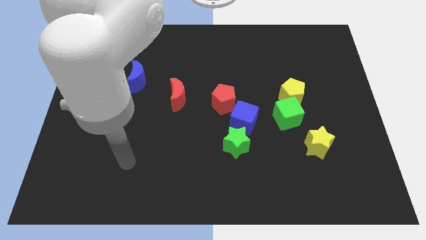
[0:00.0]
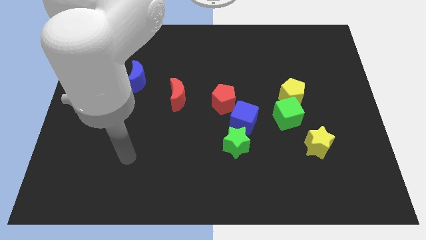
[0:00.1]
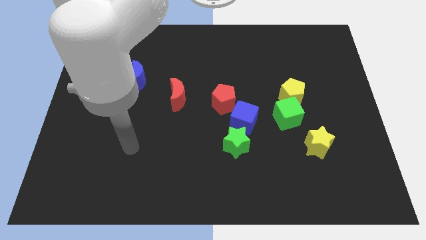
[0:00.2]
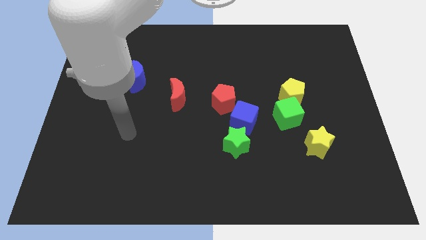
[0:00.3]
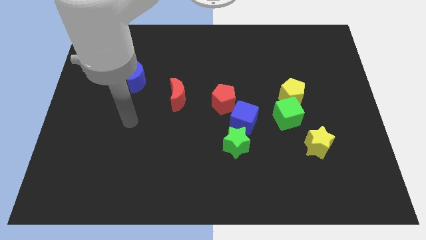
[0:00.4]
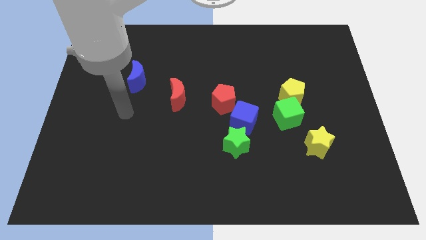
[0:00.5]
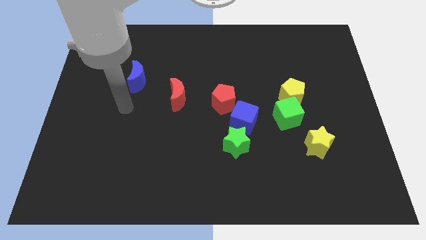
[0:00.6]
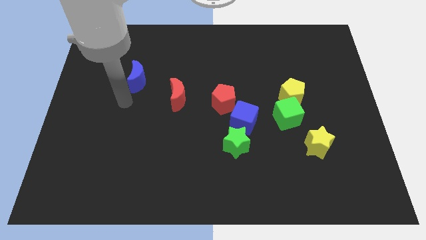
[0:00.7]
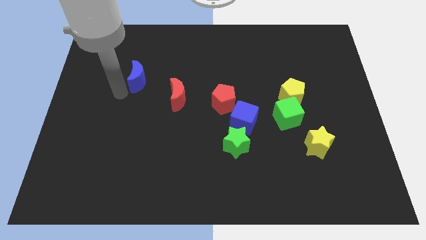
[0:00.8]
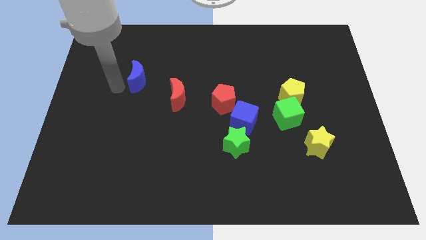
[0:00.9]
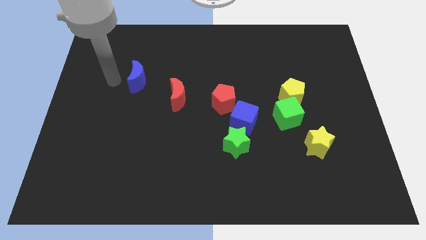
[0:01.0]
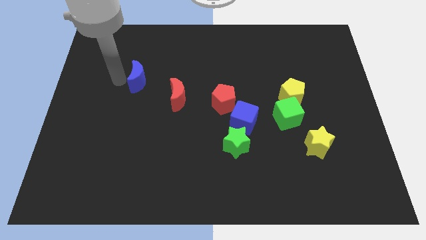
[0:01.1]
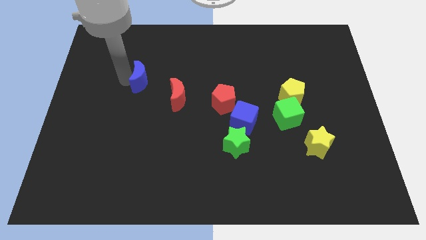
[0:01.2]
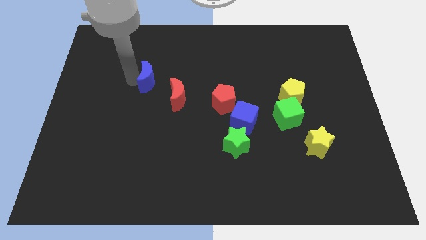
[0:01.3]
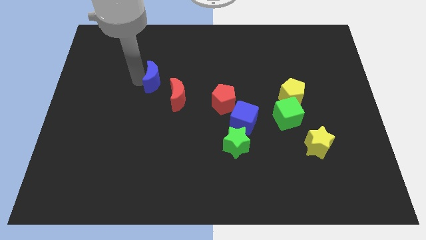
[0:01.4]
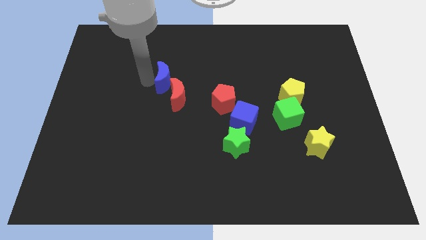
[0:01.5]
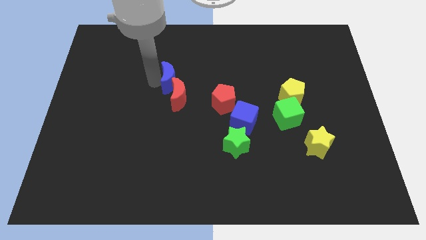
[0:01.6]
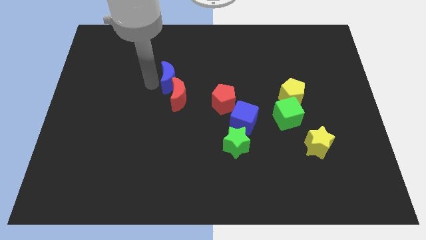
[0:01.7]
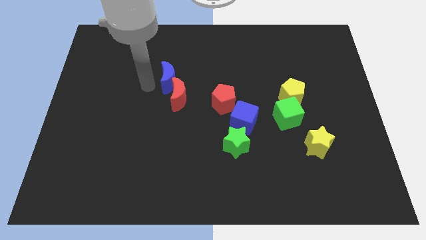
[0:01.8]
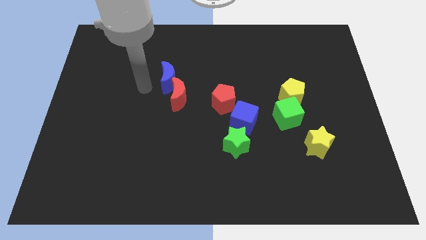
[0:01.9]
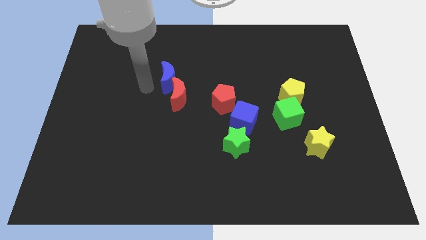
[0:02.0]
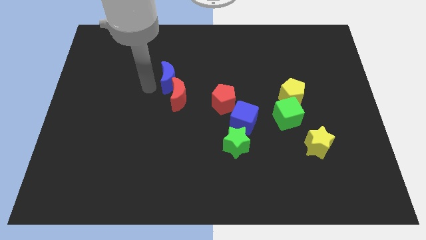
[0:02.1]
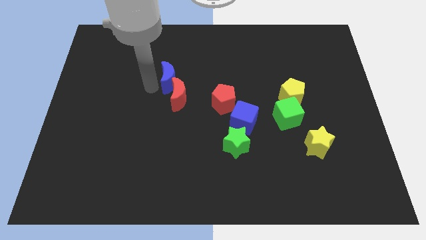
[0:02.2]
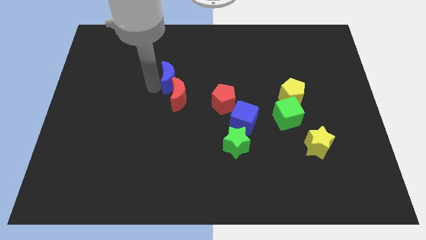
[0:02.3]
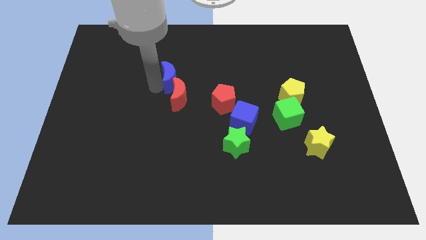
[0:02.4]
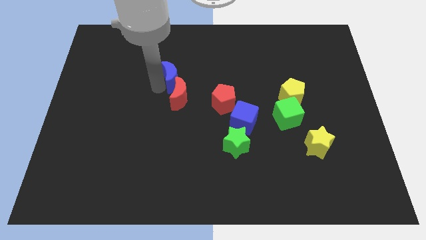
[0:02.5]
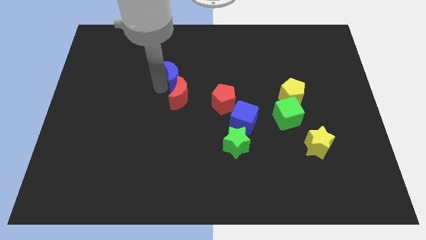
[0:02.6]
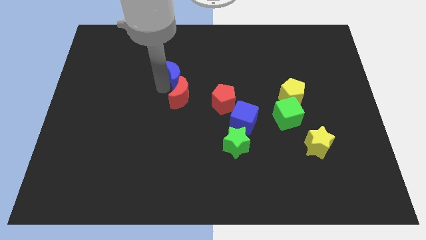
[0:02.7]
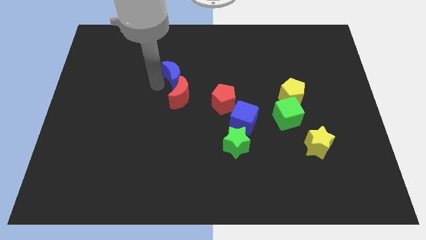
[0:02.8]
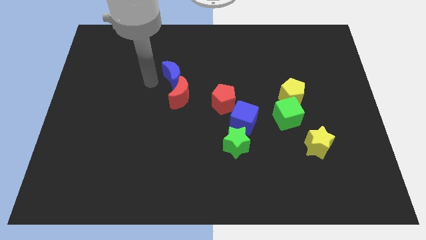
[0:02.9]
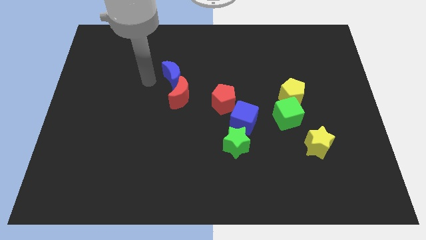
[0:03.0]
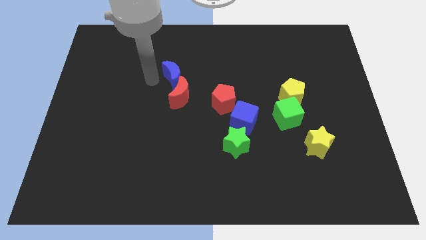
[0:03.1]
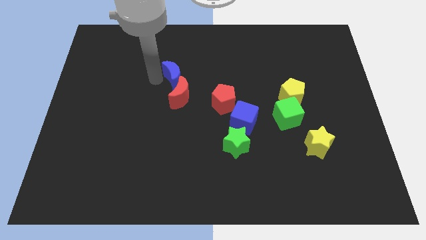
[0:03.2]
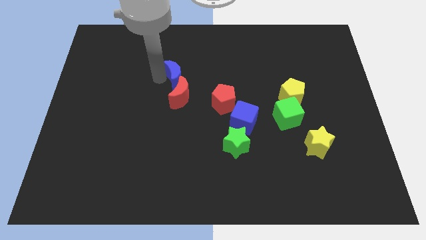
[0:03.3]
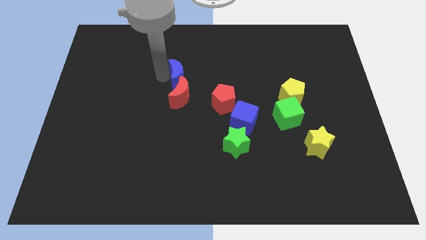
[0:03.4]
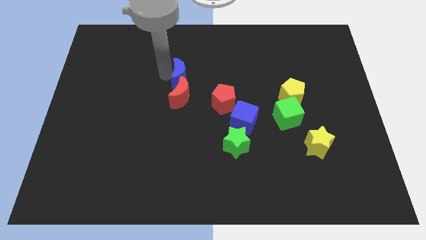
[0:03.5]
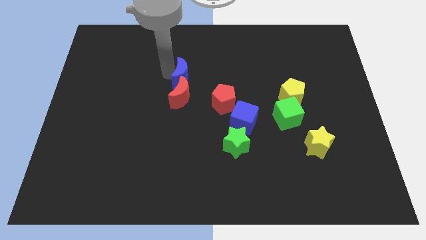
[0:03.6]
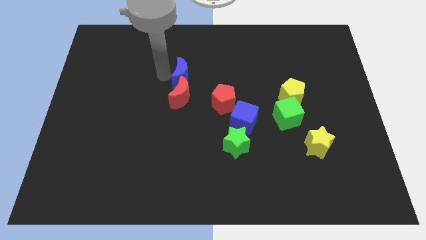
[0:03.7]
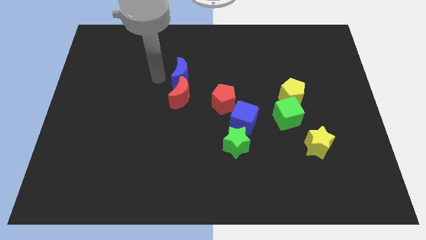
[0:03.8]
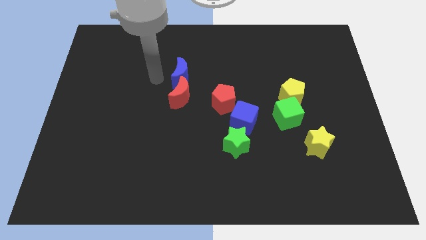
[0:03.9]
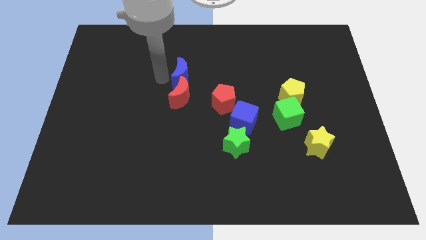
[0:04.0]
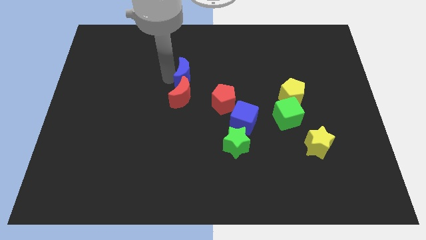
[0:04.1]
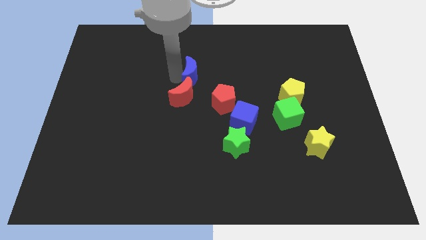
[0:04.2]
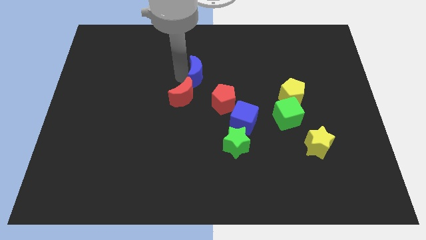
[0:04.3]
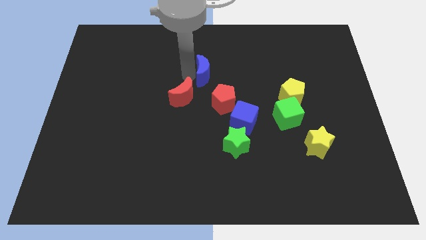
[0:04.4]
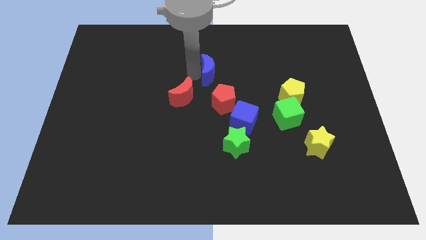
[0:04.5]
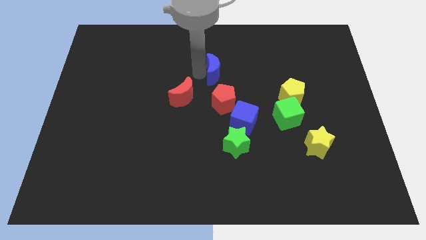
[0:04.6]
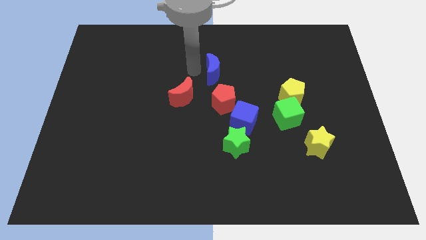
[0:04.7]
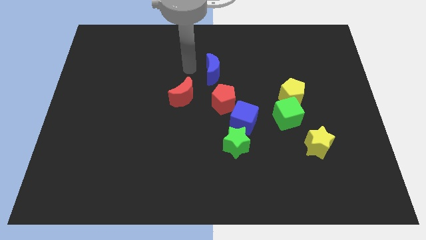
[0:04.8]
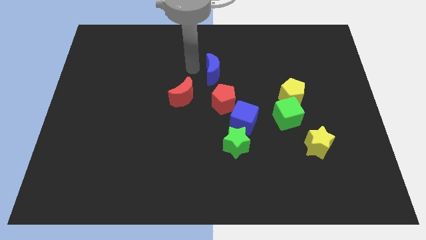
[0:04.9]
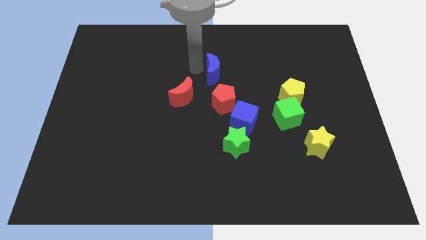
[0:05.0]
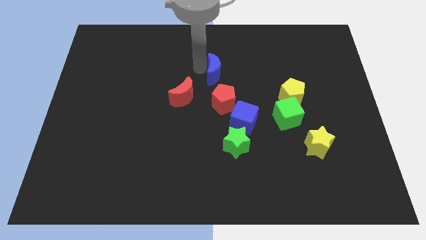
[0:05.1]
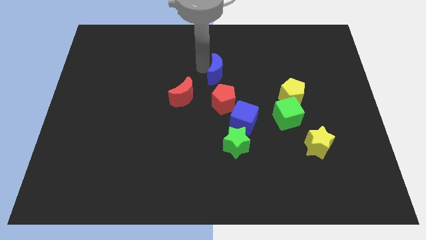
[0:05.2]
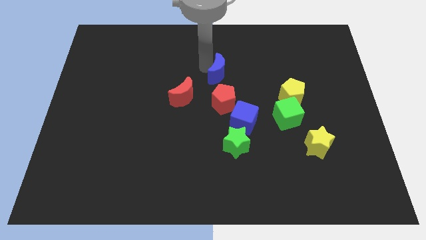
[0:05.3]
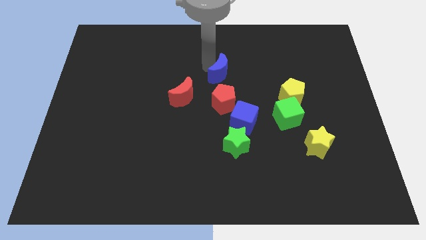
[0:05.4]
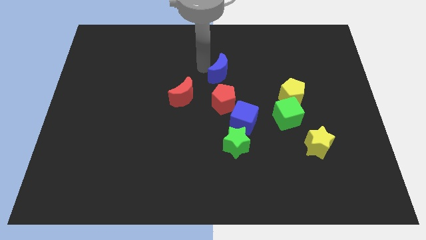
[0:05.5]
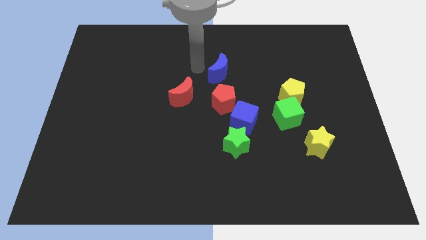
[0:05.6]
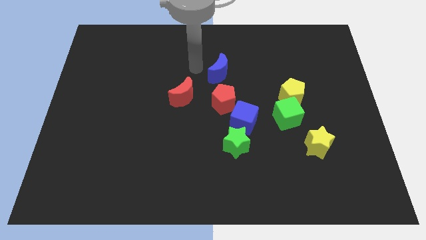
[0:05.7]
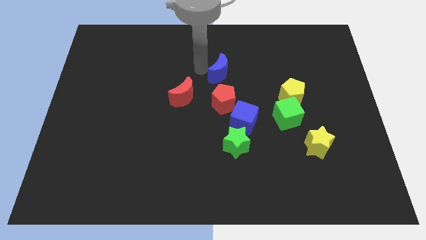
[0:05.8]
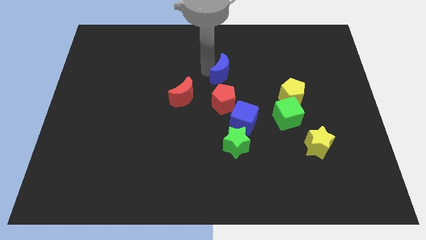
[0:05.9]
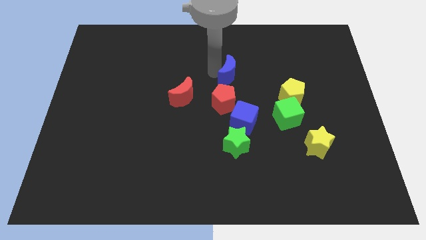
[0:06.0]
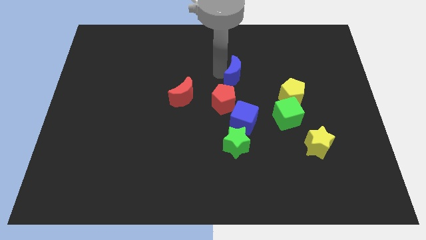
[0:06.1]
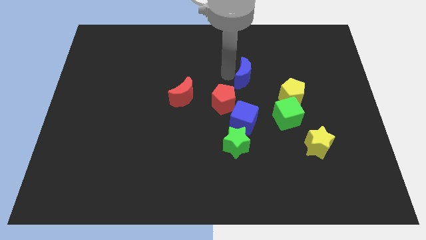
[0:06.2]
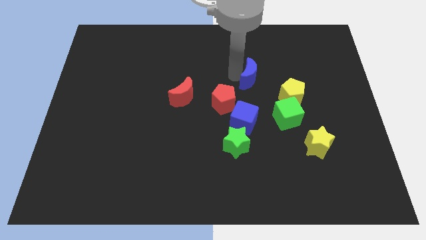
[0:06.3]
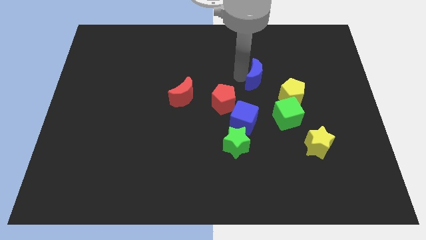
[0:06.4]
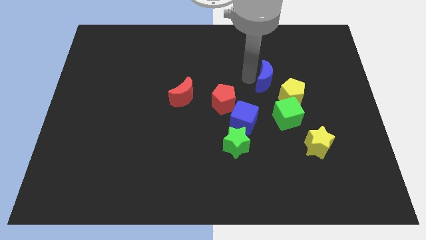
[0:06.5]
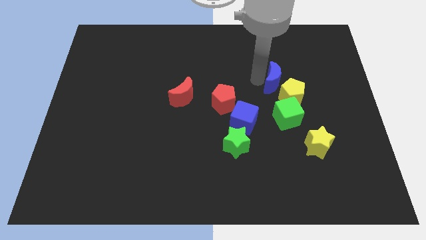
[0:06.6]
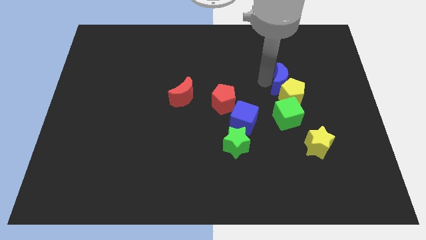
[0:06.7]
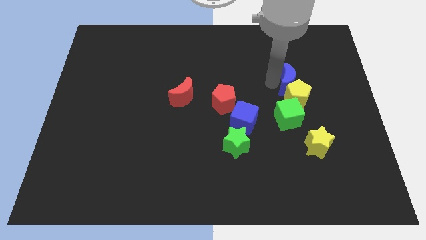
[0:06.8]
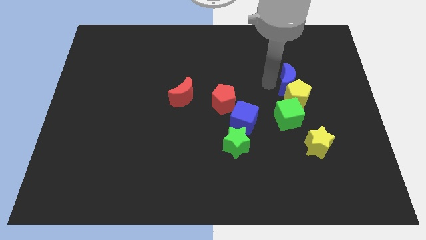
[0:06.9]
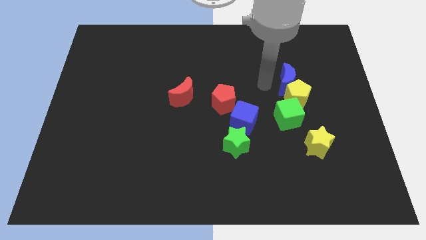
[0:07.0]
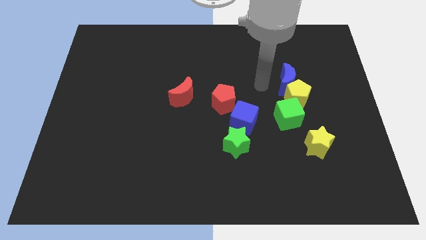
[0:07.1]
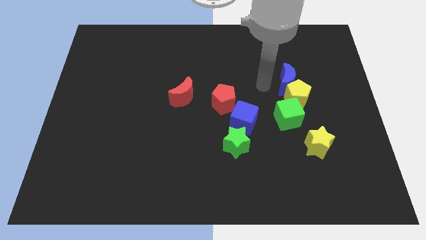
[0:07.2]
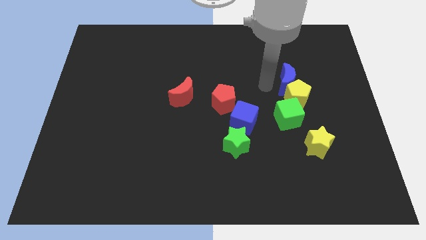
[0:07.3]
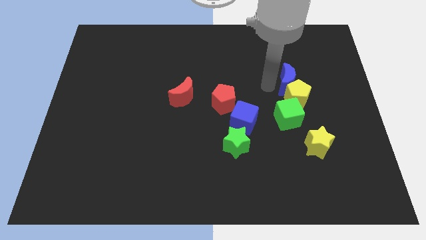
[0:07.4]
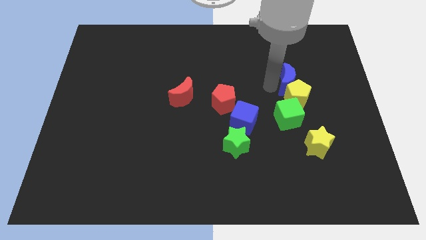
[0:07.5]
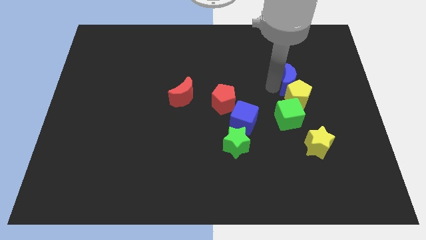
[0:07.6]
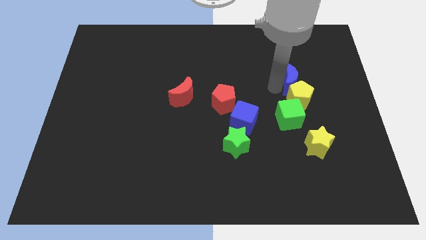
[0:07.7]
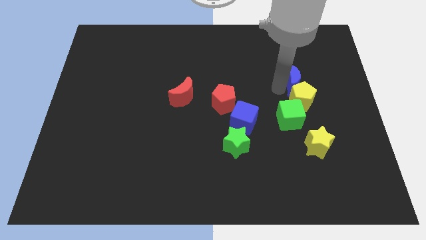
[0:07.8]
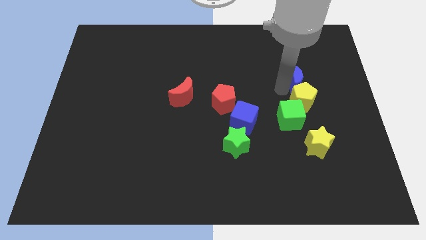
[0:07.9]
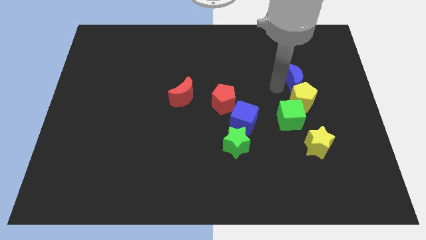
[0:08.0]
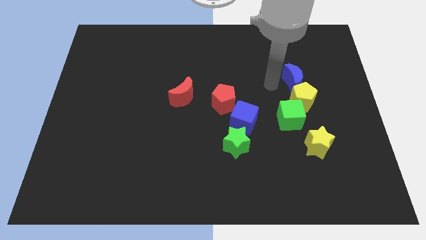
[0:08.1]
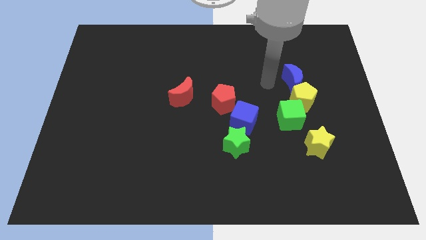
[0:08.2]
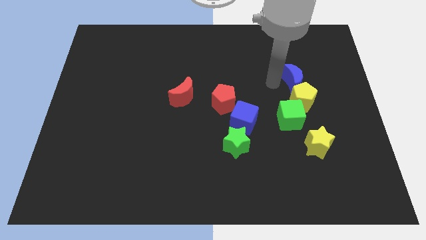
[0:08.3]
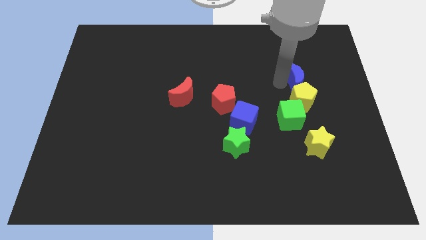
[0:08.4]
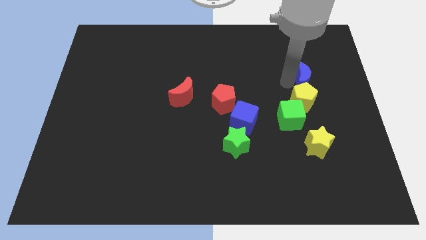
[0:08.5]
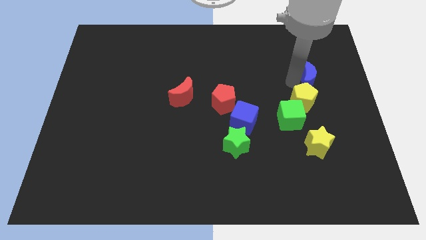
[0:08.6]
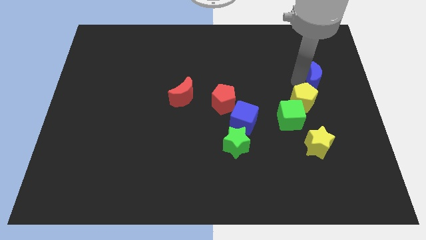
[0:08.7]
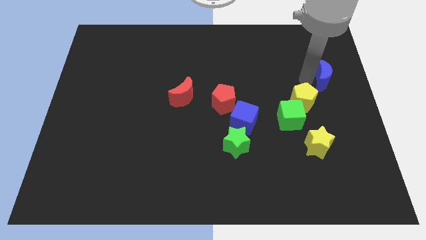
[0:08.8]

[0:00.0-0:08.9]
push the blue moon to the right side of the board
